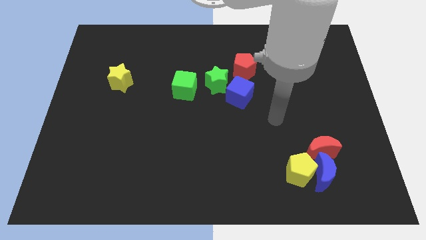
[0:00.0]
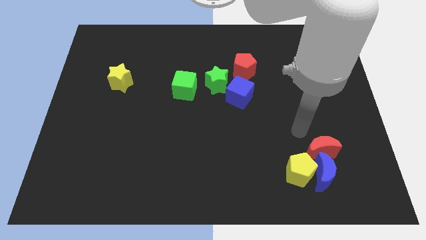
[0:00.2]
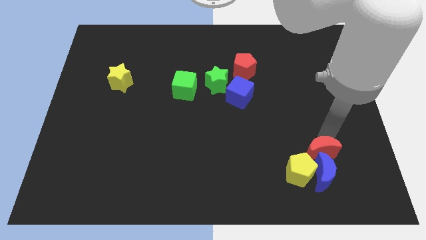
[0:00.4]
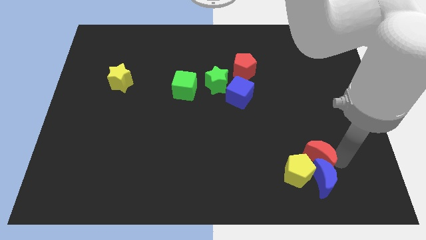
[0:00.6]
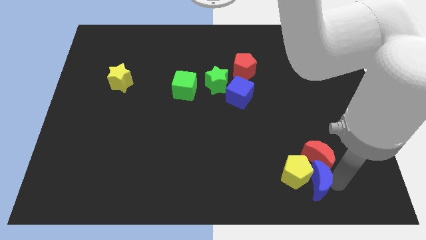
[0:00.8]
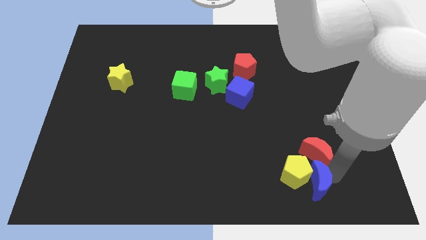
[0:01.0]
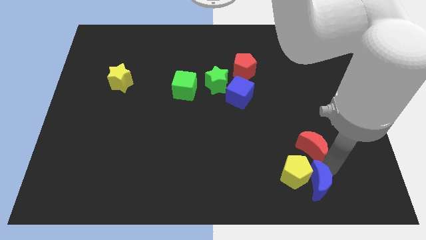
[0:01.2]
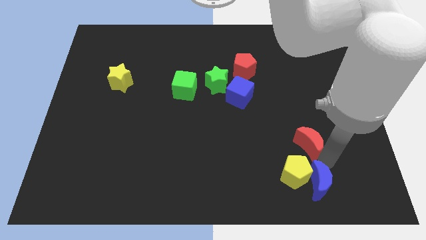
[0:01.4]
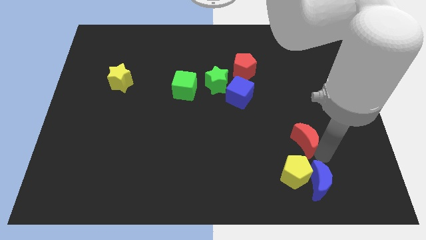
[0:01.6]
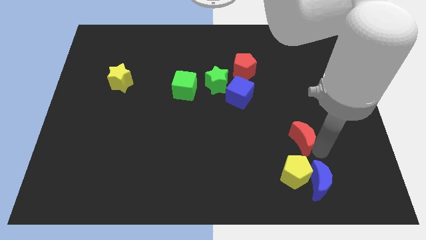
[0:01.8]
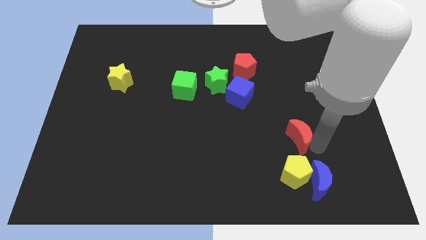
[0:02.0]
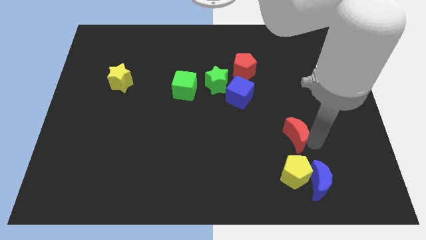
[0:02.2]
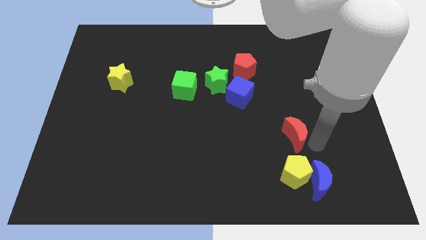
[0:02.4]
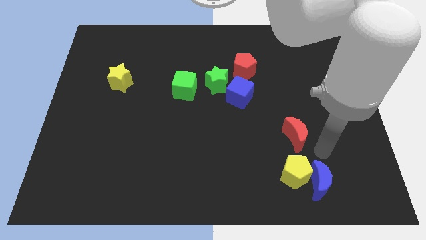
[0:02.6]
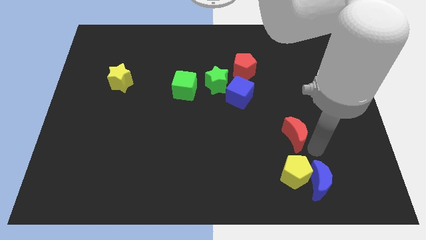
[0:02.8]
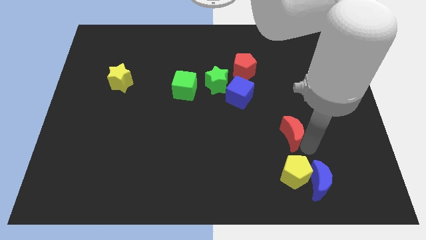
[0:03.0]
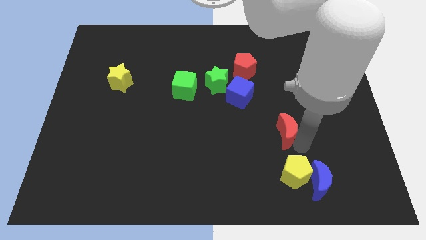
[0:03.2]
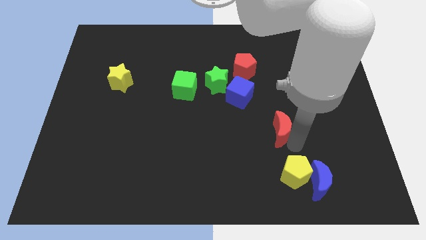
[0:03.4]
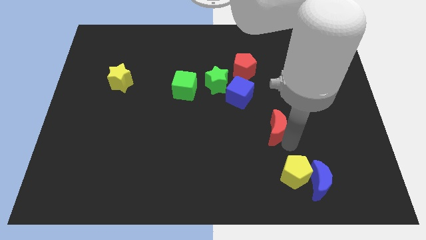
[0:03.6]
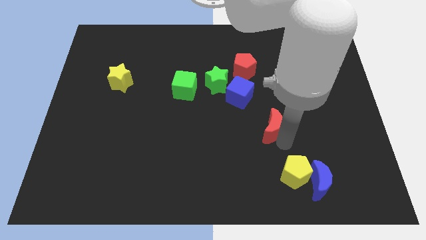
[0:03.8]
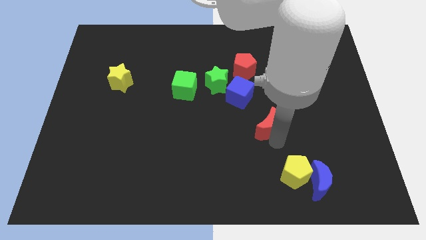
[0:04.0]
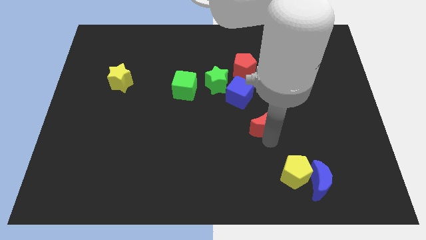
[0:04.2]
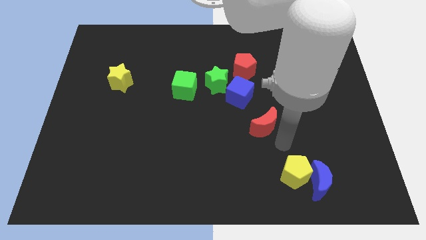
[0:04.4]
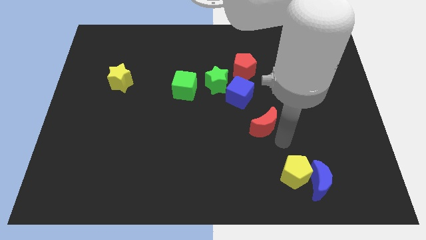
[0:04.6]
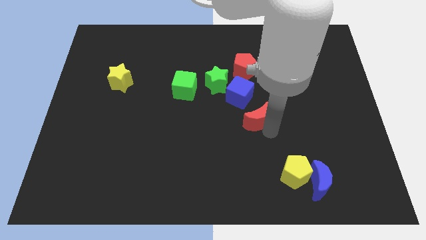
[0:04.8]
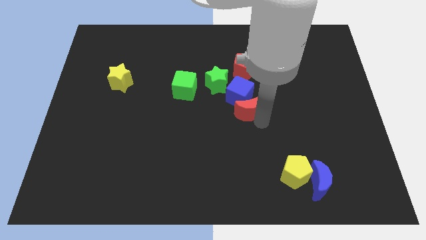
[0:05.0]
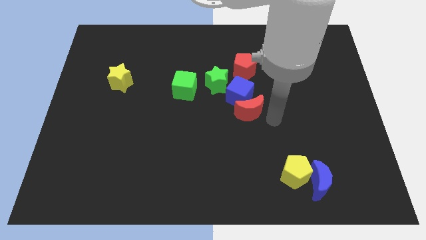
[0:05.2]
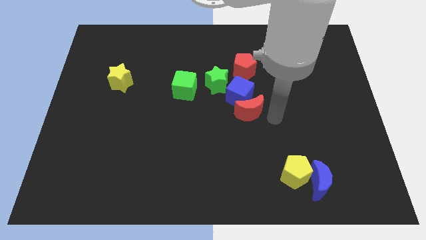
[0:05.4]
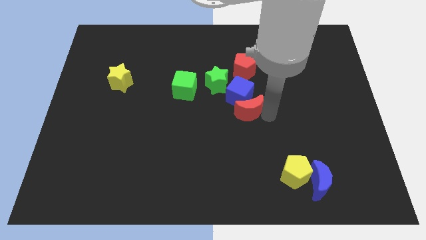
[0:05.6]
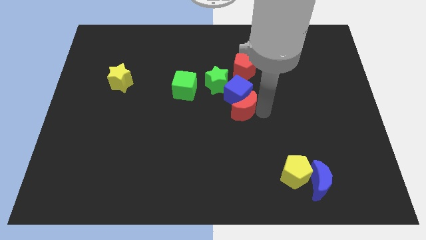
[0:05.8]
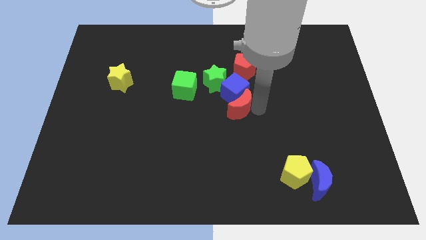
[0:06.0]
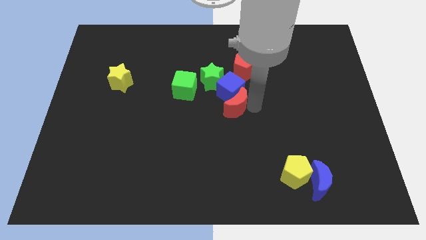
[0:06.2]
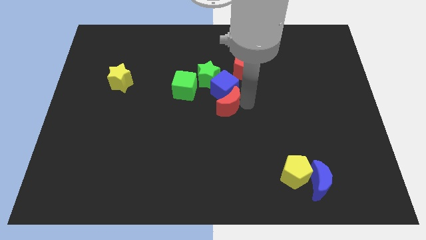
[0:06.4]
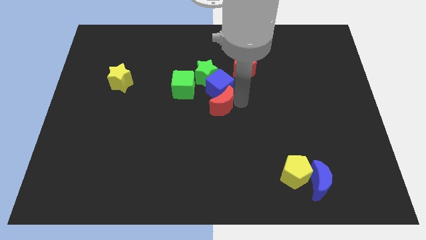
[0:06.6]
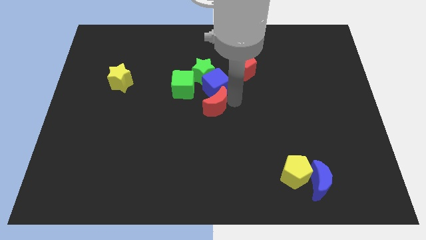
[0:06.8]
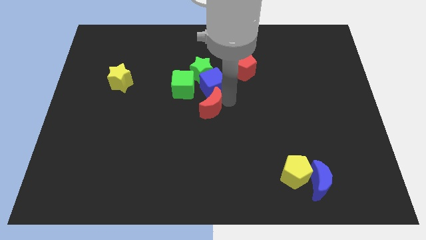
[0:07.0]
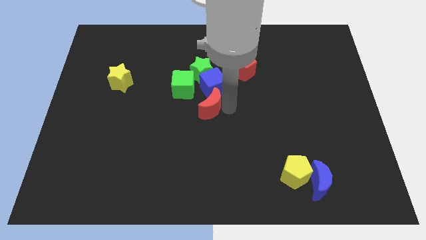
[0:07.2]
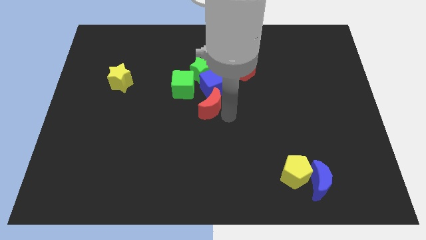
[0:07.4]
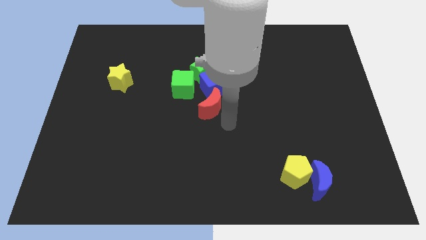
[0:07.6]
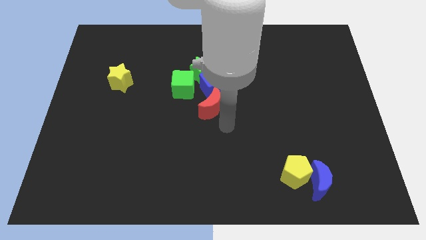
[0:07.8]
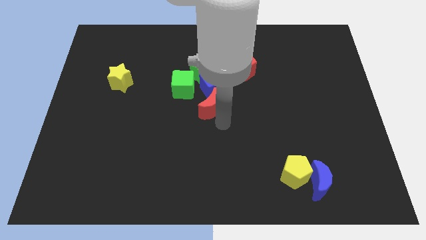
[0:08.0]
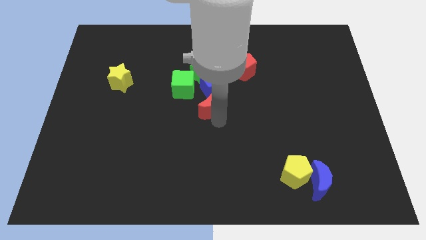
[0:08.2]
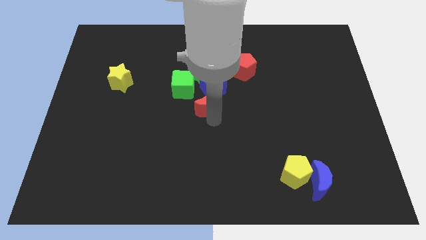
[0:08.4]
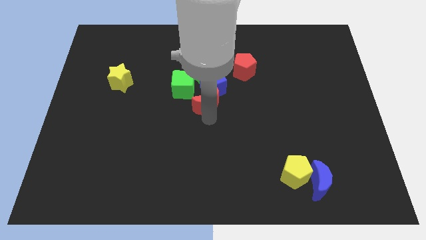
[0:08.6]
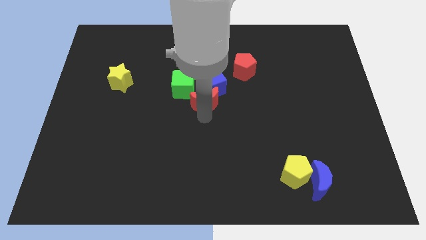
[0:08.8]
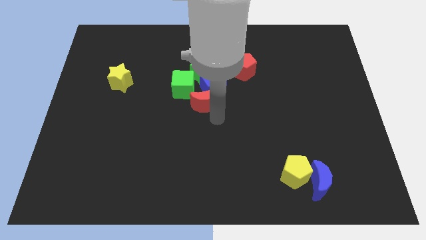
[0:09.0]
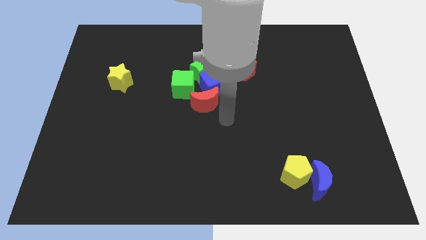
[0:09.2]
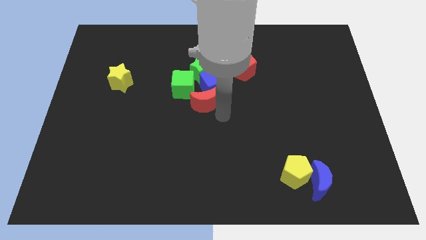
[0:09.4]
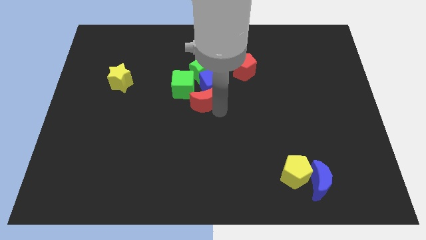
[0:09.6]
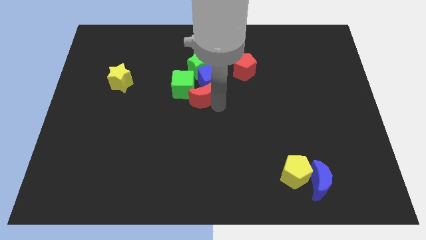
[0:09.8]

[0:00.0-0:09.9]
slide the red moon close to the green cube

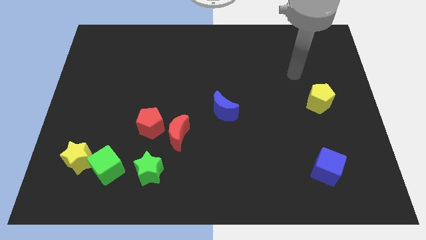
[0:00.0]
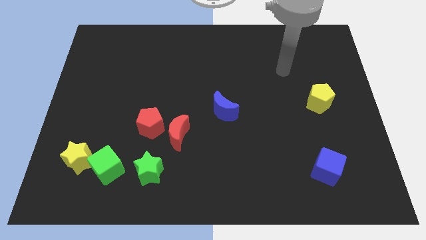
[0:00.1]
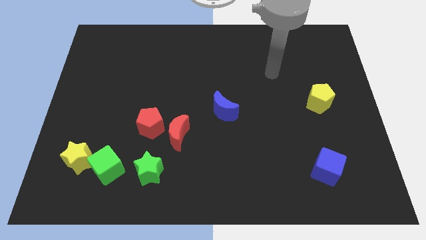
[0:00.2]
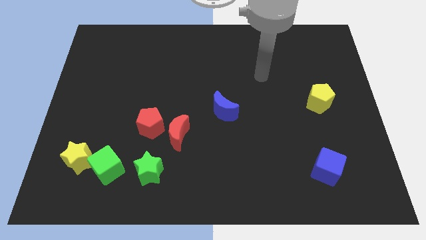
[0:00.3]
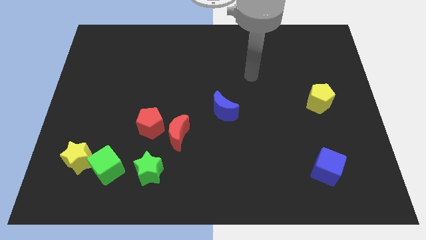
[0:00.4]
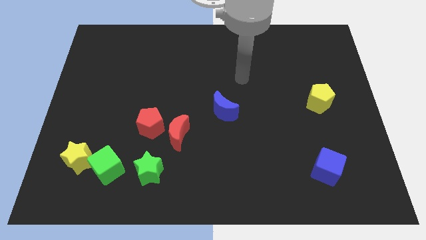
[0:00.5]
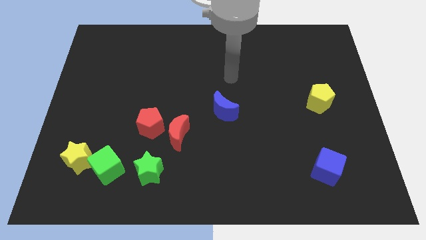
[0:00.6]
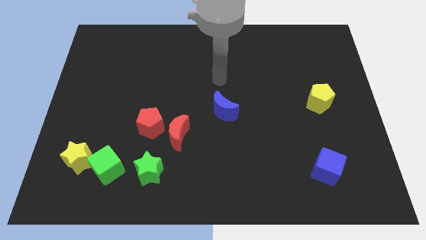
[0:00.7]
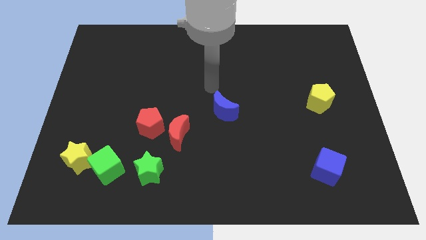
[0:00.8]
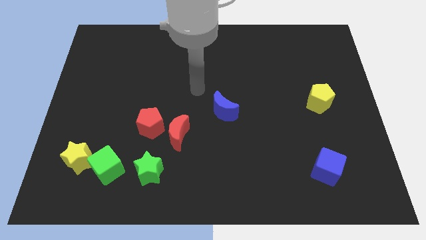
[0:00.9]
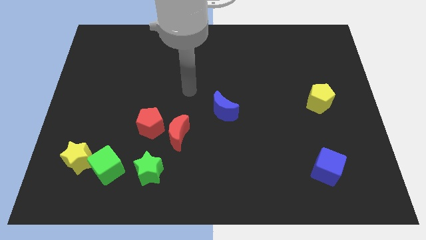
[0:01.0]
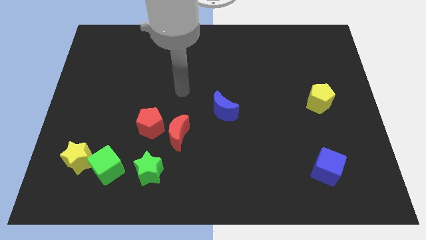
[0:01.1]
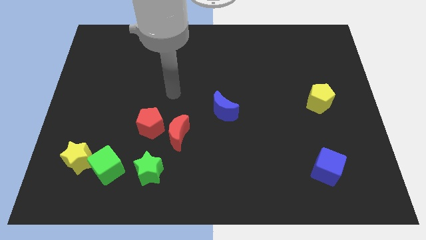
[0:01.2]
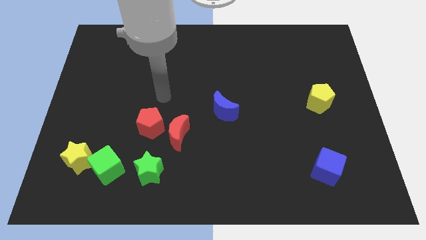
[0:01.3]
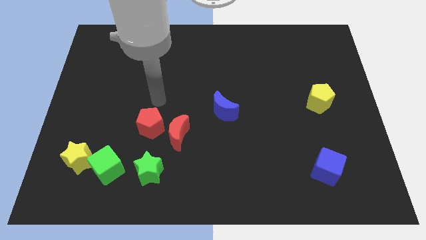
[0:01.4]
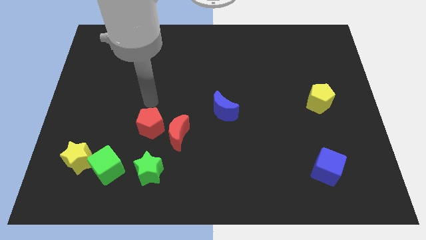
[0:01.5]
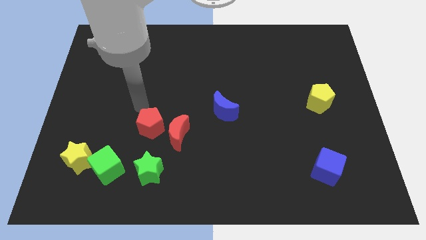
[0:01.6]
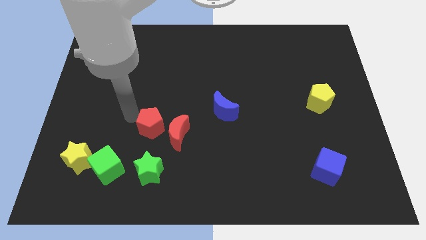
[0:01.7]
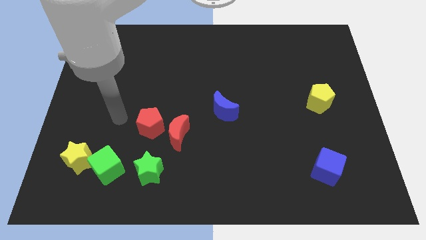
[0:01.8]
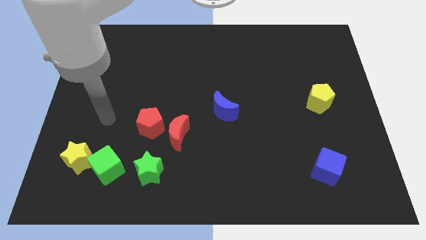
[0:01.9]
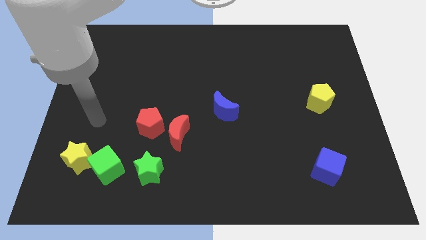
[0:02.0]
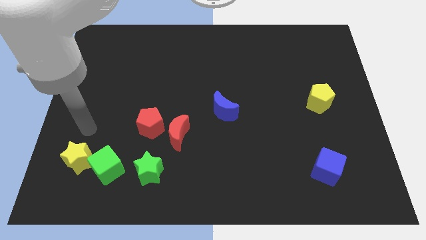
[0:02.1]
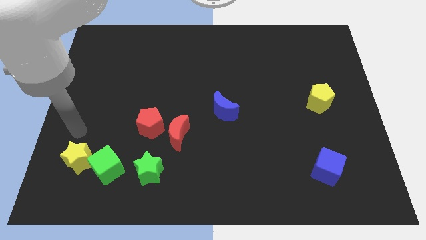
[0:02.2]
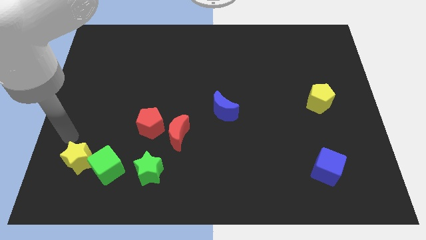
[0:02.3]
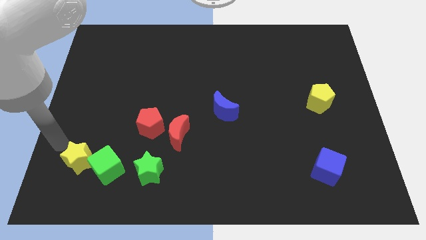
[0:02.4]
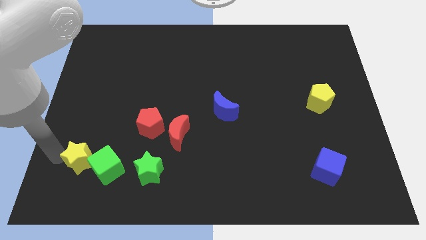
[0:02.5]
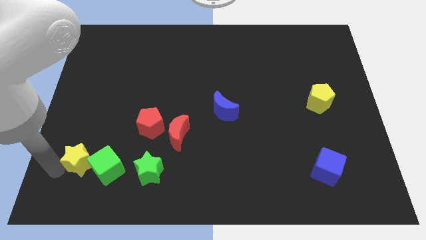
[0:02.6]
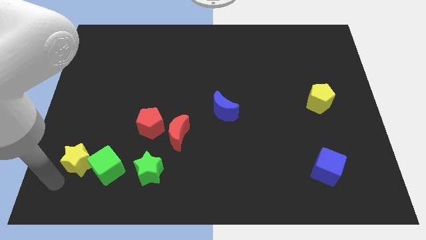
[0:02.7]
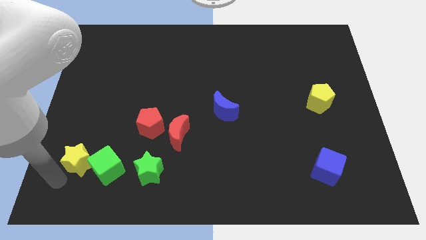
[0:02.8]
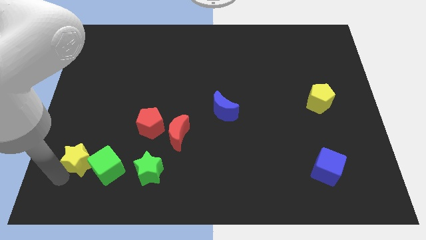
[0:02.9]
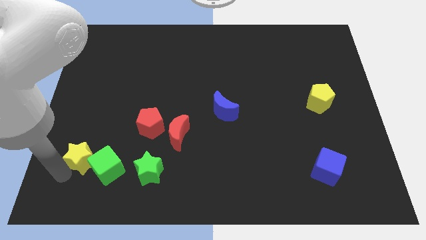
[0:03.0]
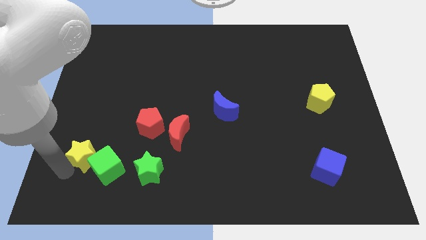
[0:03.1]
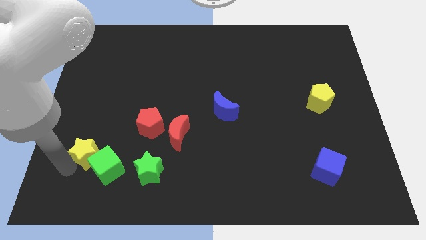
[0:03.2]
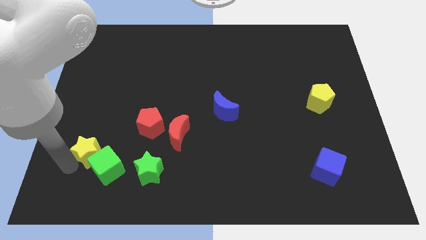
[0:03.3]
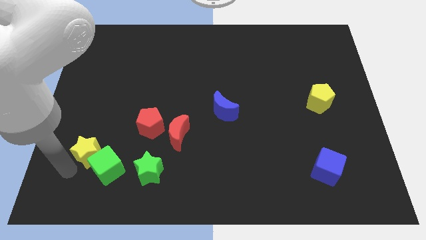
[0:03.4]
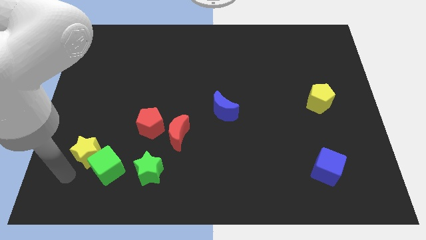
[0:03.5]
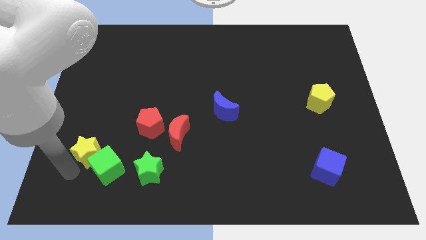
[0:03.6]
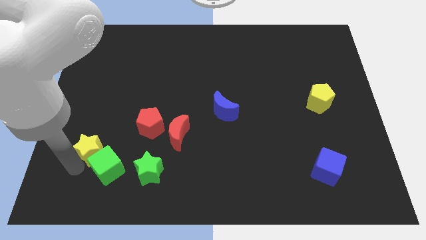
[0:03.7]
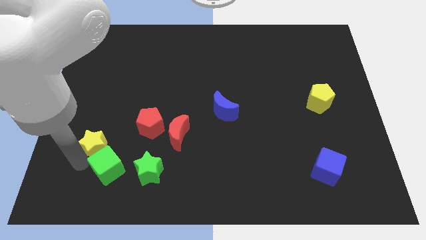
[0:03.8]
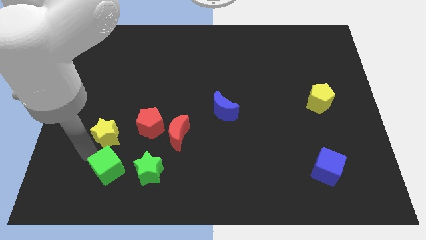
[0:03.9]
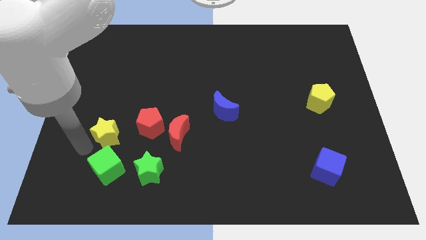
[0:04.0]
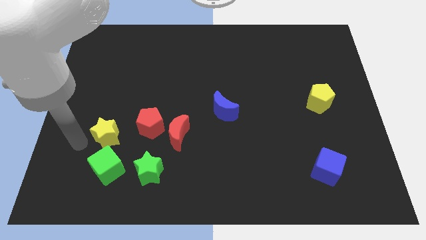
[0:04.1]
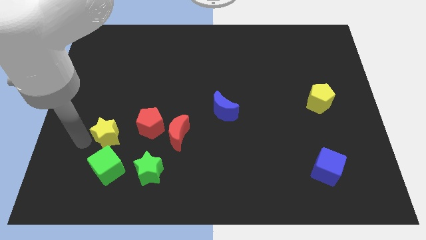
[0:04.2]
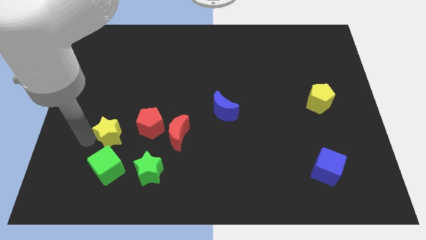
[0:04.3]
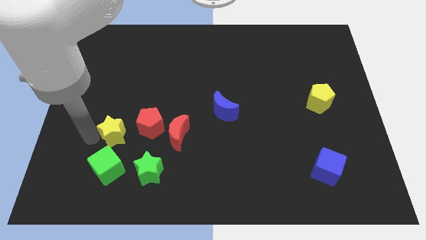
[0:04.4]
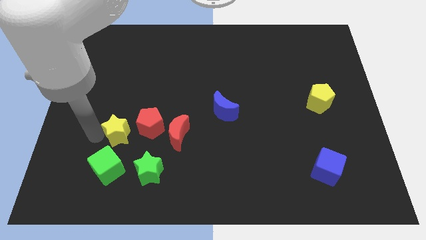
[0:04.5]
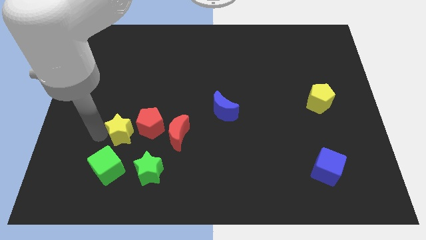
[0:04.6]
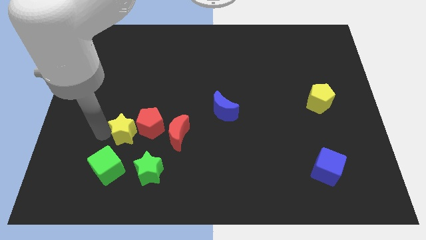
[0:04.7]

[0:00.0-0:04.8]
slide the yellow star close to the red pentagon
